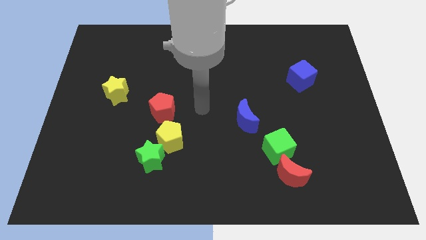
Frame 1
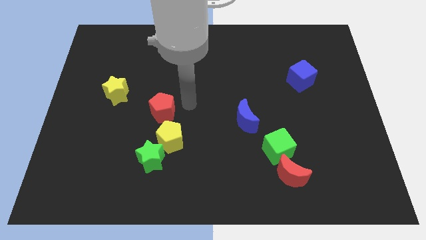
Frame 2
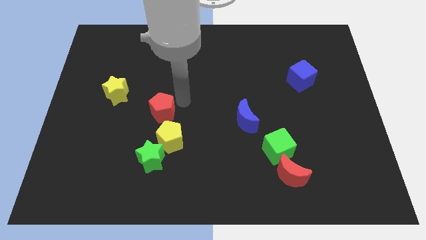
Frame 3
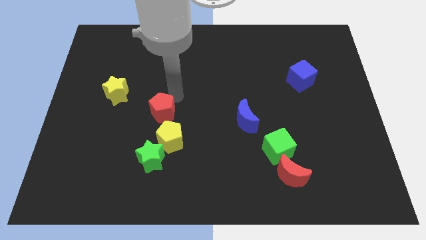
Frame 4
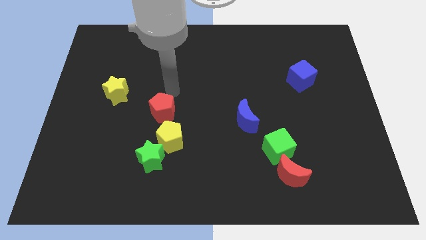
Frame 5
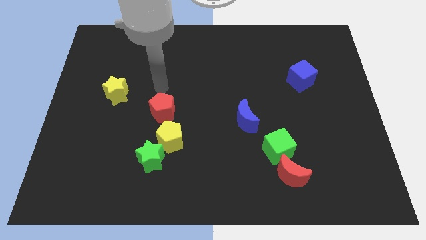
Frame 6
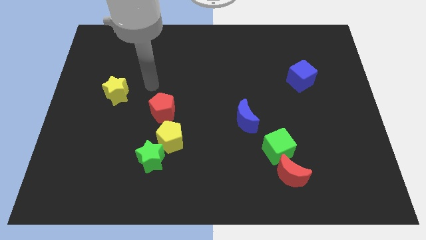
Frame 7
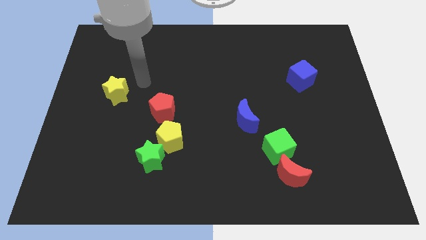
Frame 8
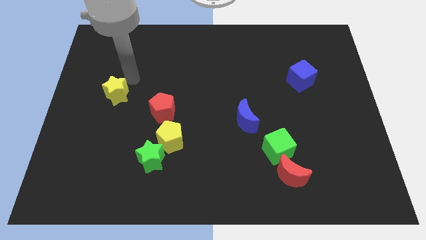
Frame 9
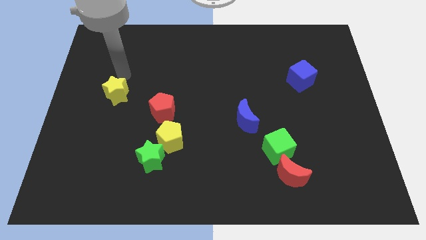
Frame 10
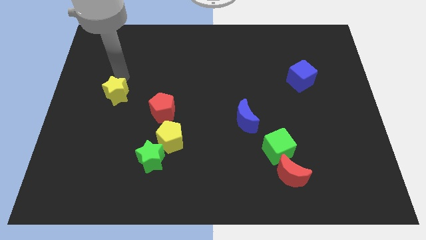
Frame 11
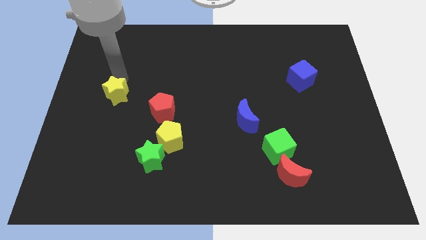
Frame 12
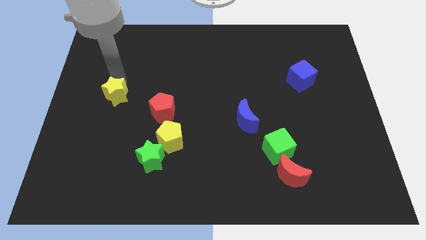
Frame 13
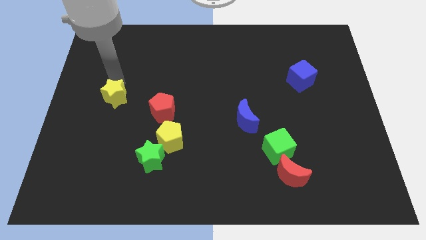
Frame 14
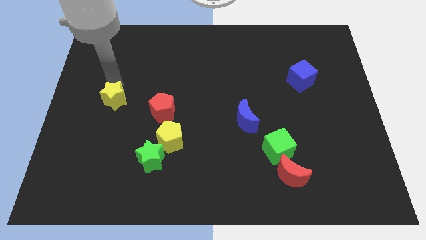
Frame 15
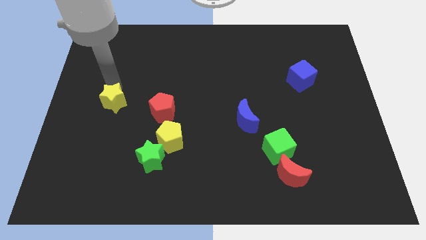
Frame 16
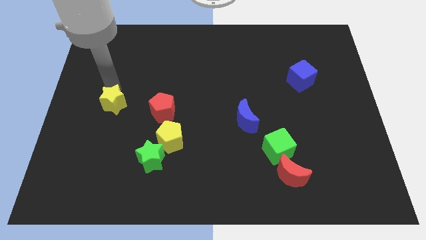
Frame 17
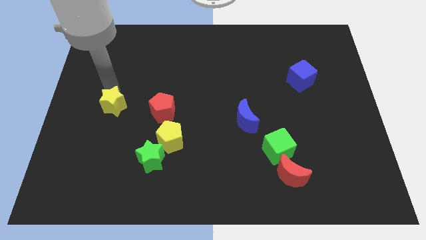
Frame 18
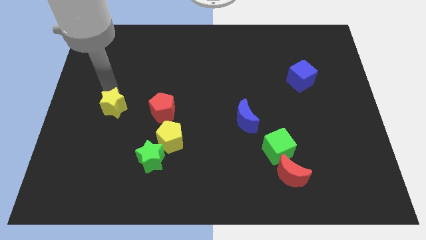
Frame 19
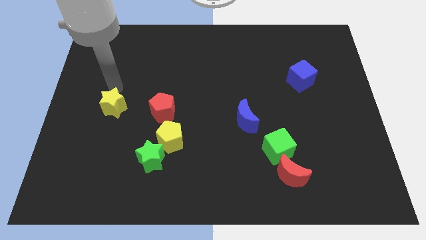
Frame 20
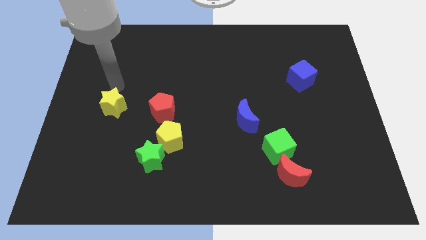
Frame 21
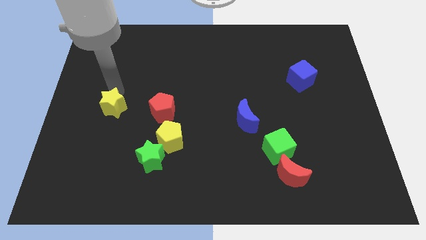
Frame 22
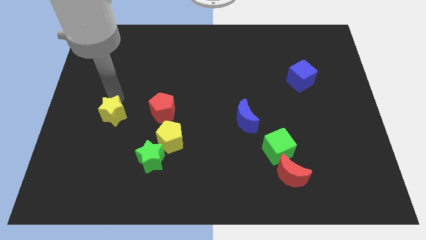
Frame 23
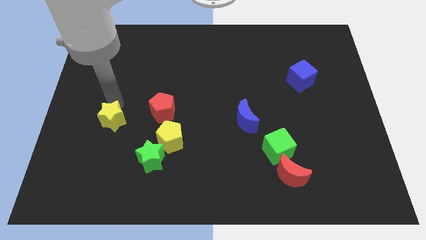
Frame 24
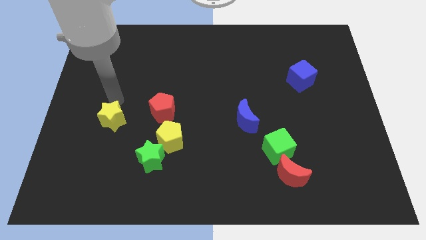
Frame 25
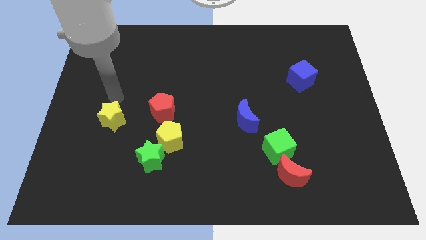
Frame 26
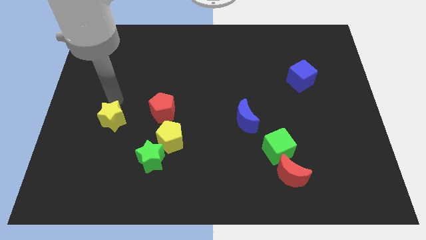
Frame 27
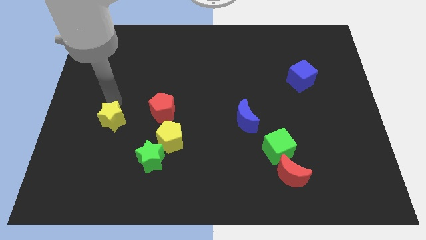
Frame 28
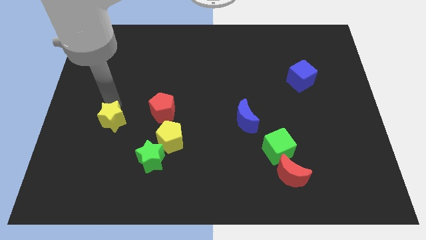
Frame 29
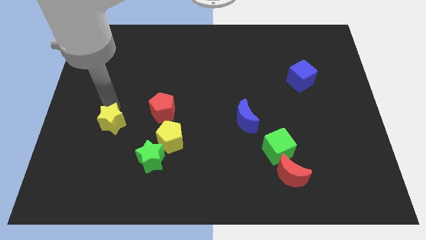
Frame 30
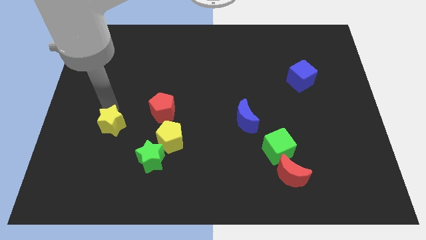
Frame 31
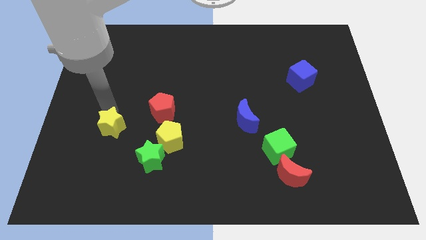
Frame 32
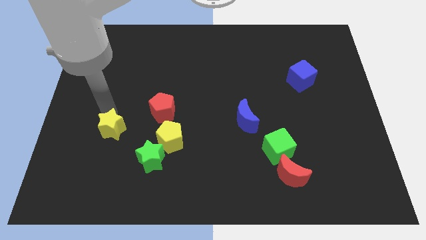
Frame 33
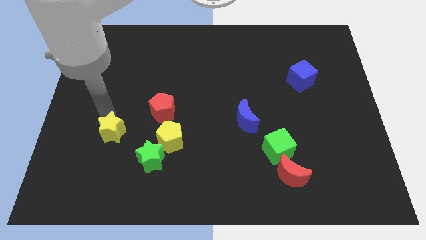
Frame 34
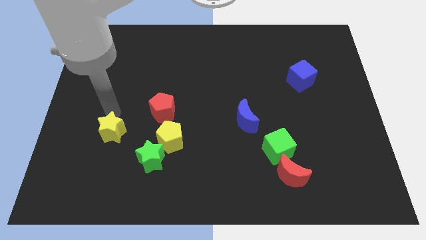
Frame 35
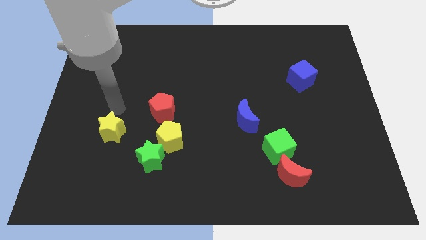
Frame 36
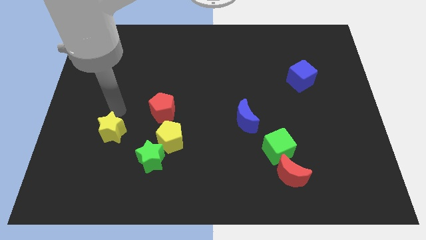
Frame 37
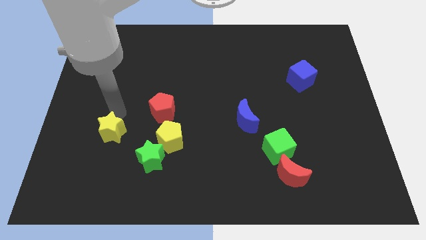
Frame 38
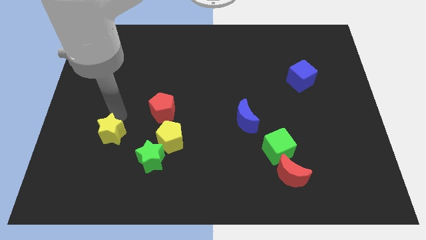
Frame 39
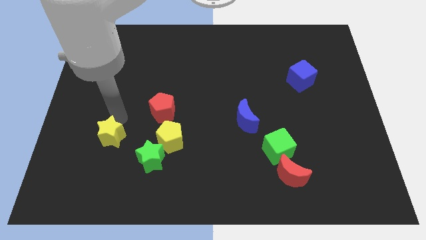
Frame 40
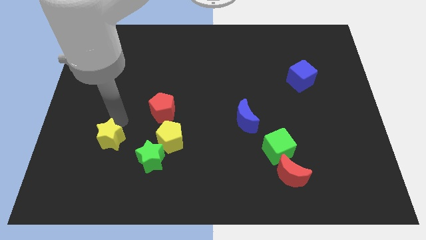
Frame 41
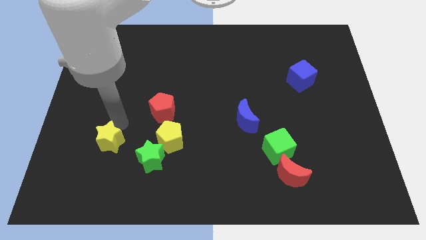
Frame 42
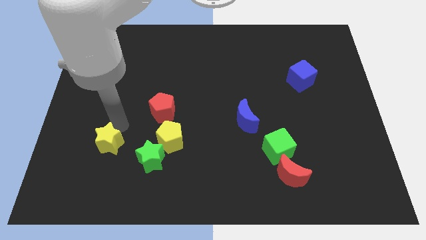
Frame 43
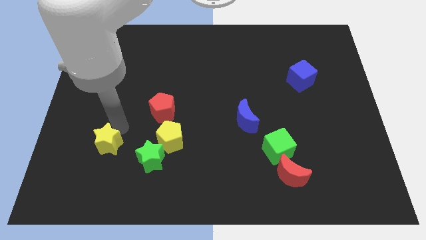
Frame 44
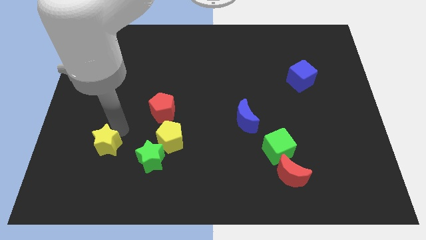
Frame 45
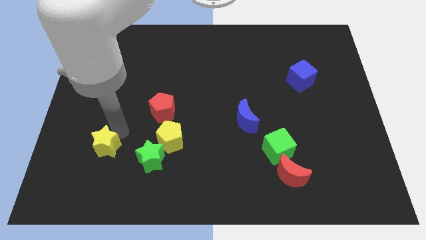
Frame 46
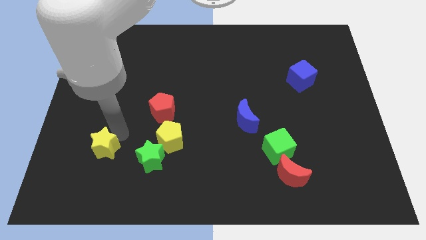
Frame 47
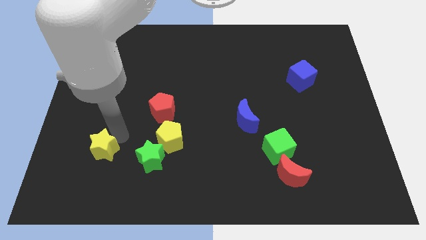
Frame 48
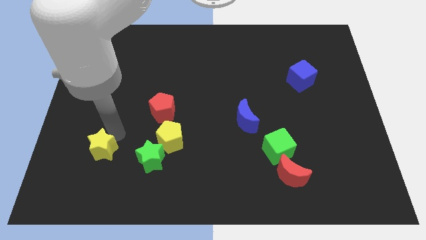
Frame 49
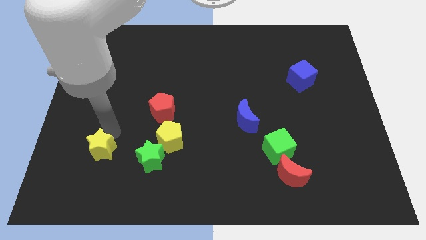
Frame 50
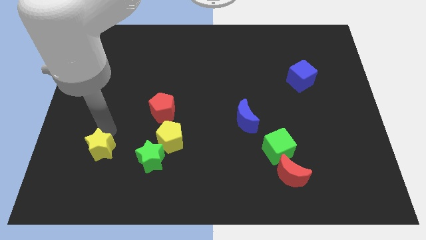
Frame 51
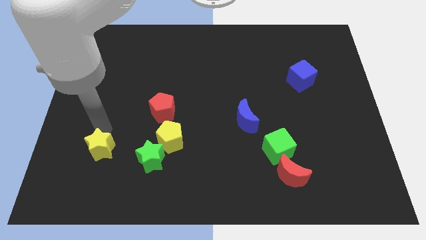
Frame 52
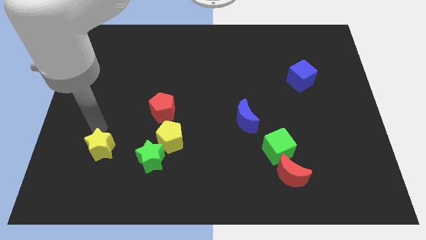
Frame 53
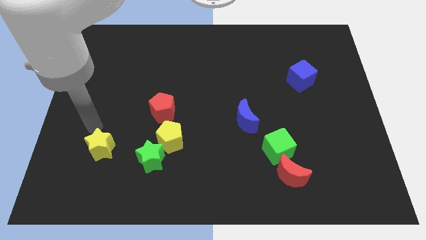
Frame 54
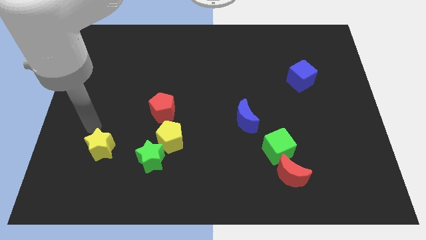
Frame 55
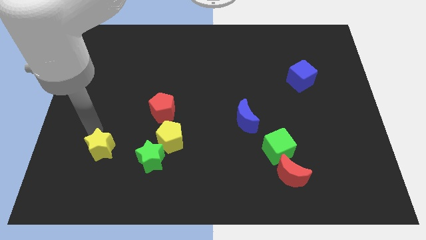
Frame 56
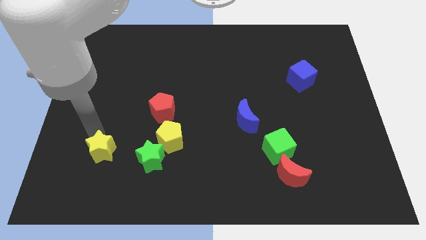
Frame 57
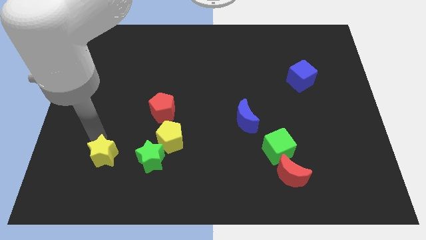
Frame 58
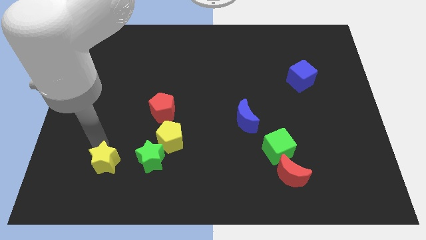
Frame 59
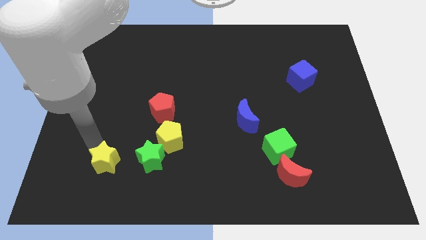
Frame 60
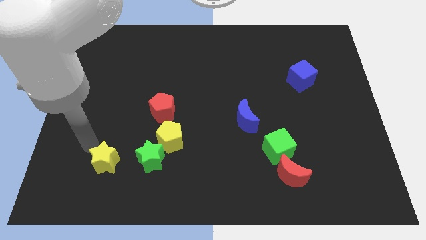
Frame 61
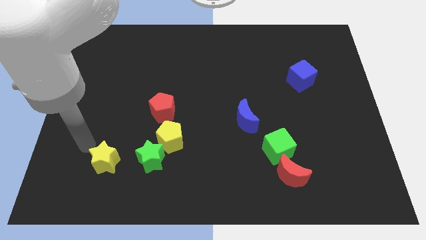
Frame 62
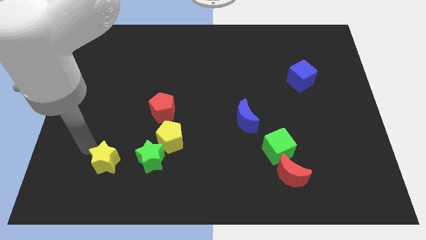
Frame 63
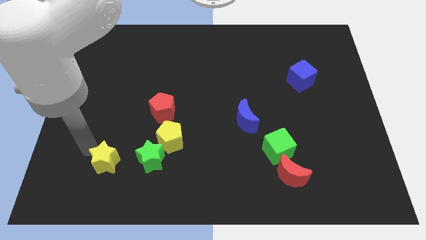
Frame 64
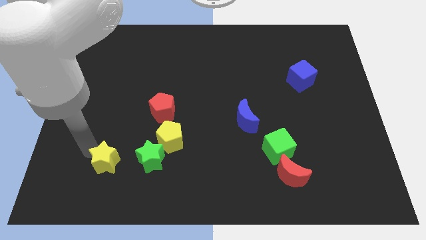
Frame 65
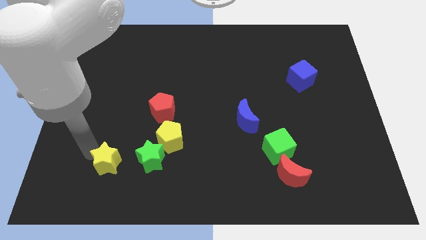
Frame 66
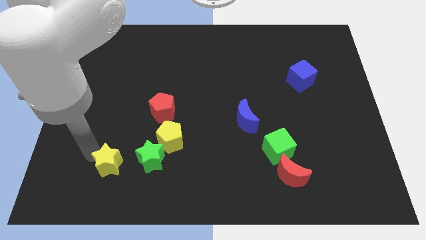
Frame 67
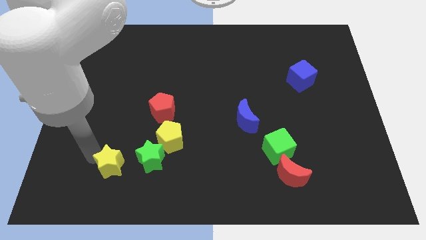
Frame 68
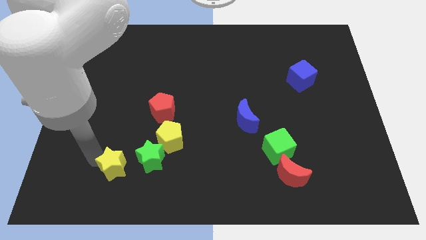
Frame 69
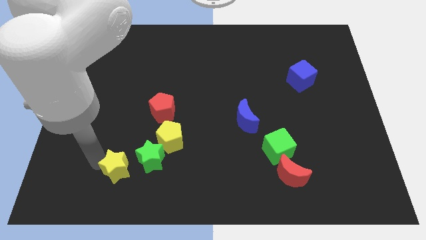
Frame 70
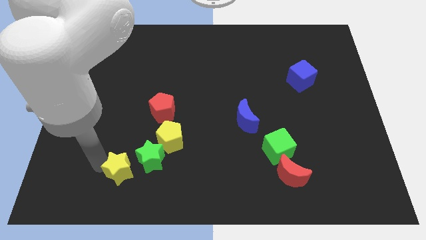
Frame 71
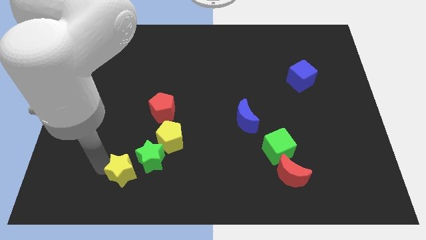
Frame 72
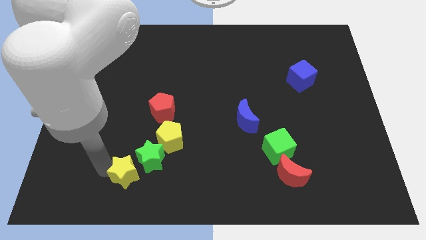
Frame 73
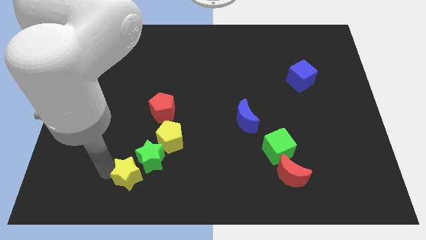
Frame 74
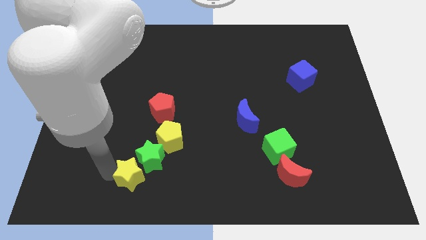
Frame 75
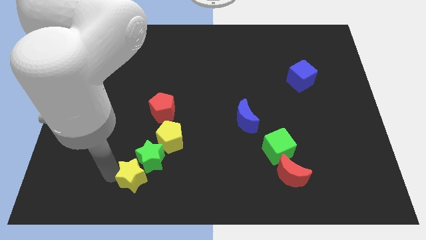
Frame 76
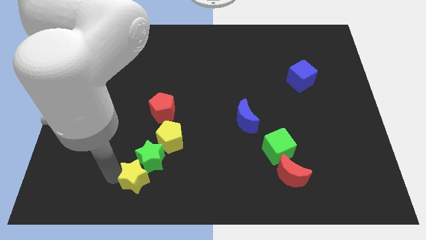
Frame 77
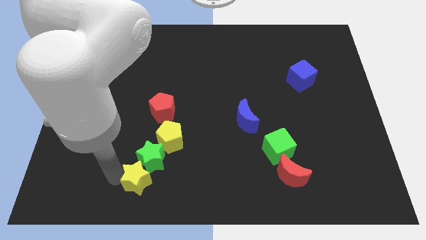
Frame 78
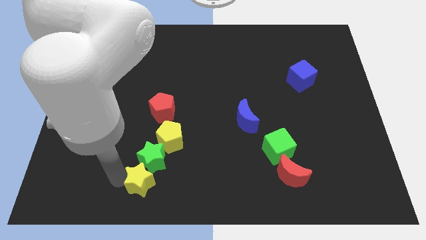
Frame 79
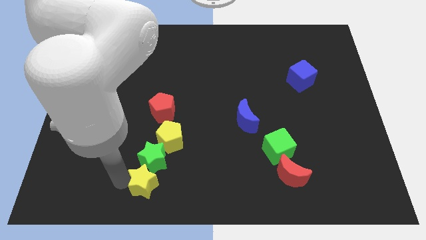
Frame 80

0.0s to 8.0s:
put the yellow star diagonally down and to the right of the green star
